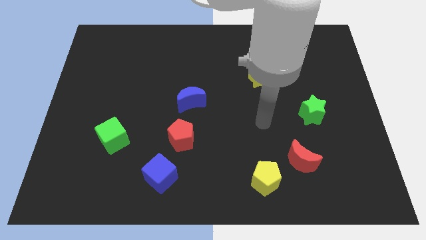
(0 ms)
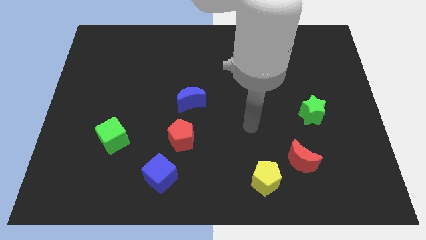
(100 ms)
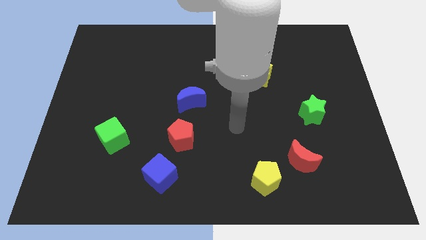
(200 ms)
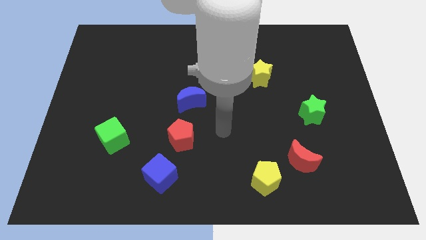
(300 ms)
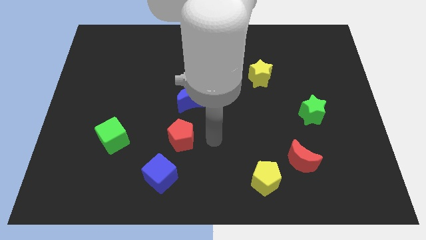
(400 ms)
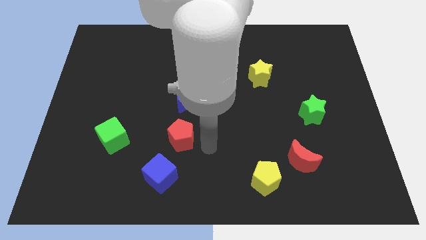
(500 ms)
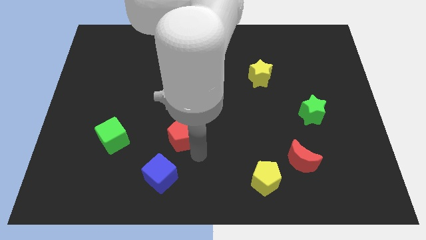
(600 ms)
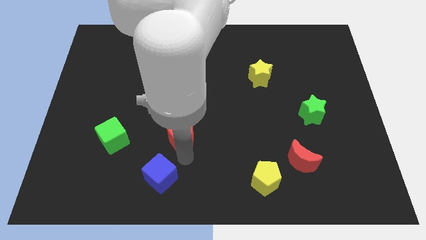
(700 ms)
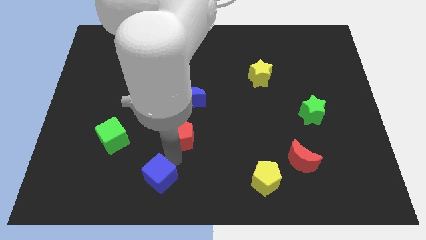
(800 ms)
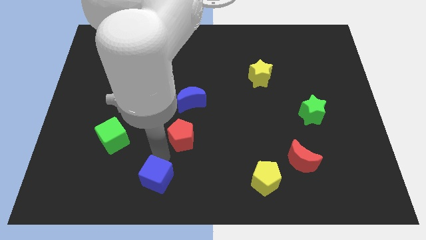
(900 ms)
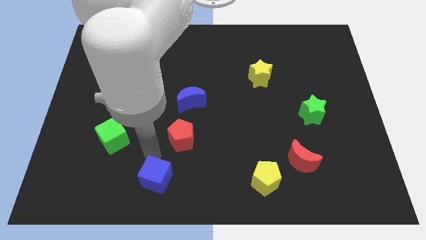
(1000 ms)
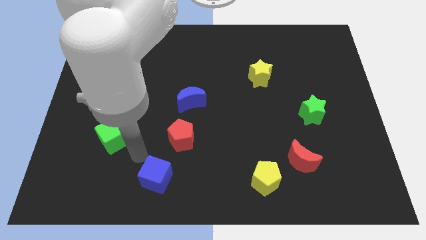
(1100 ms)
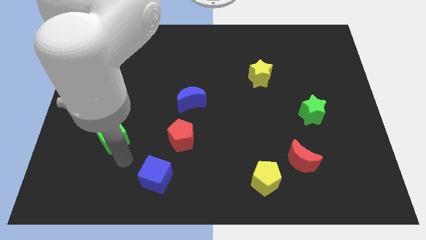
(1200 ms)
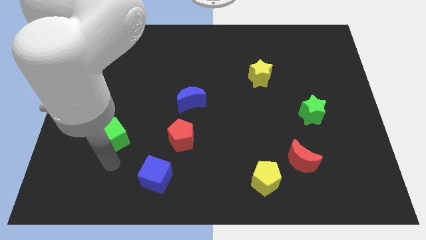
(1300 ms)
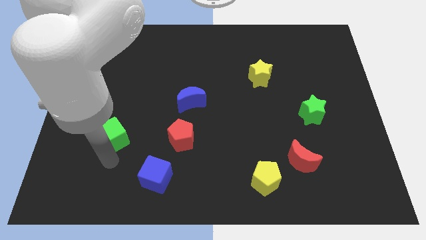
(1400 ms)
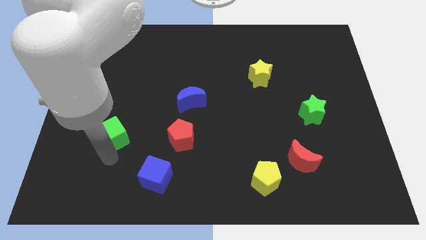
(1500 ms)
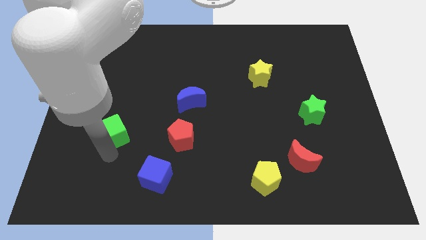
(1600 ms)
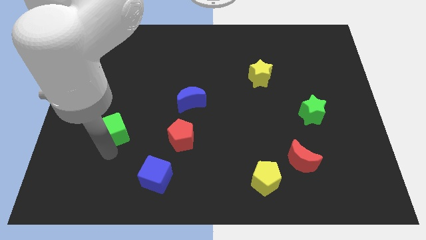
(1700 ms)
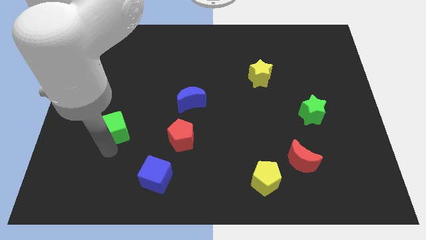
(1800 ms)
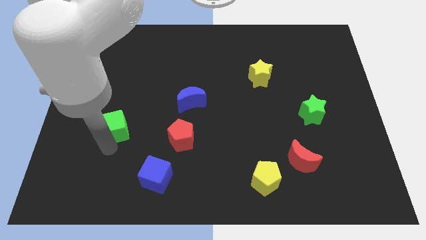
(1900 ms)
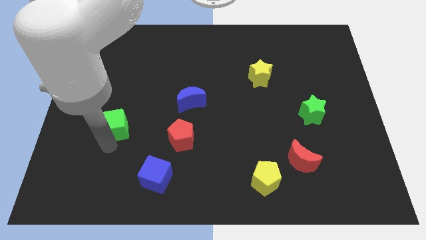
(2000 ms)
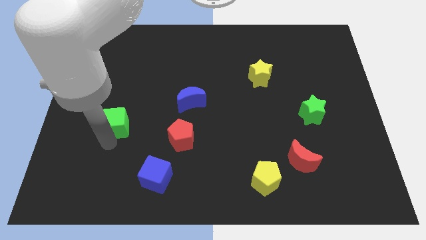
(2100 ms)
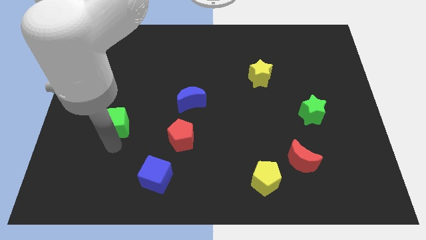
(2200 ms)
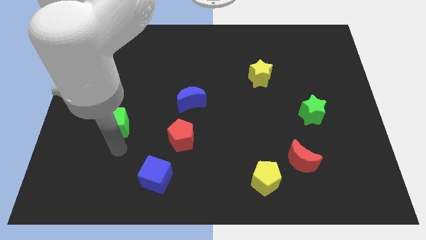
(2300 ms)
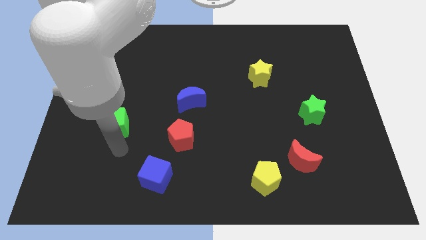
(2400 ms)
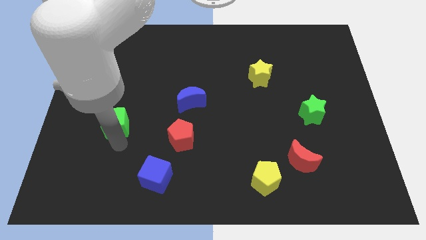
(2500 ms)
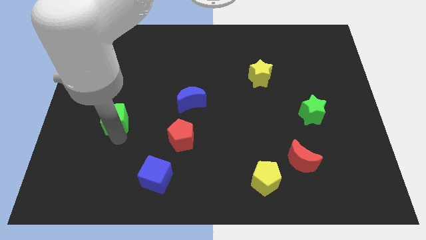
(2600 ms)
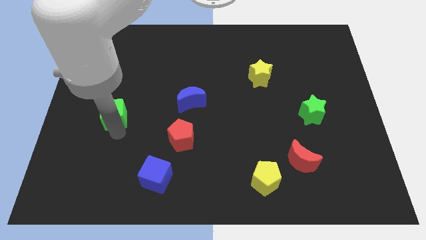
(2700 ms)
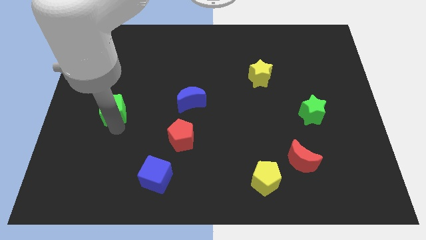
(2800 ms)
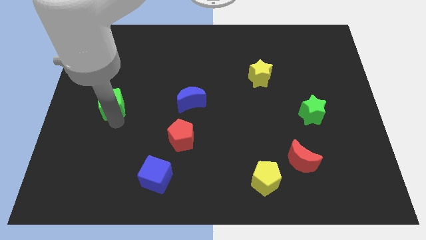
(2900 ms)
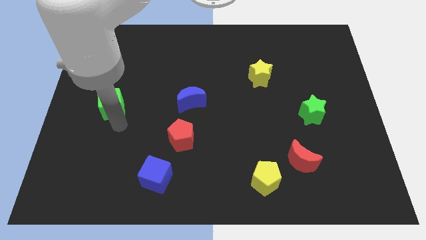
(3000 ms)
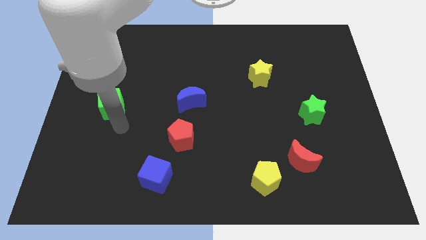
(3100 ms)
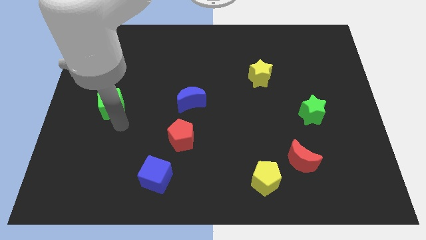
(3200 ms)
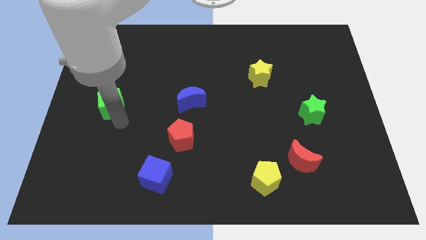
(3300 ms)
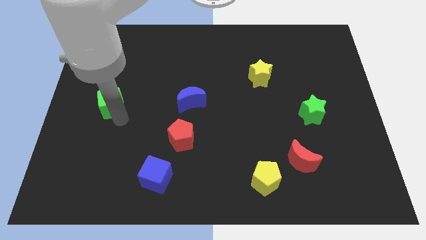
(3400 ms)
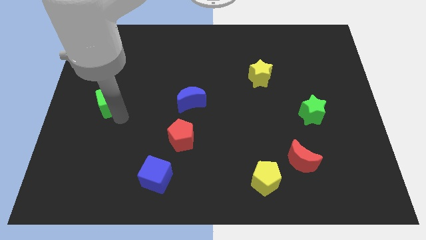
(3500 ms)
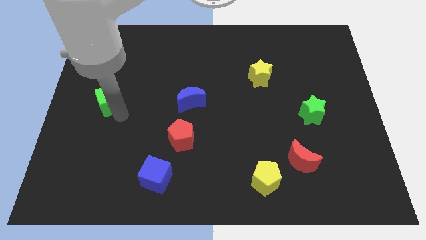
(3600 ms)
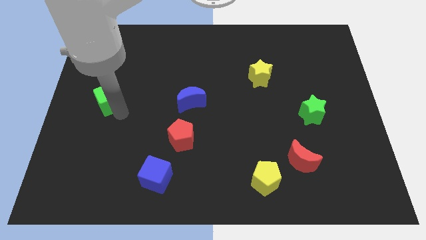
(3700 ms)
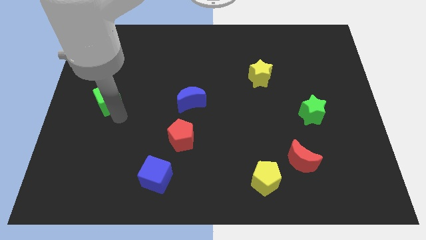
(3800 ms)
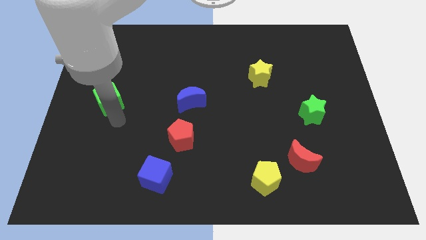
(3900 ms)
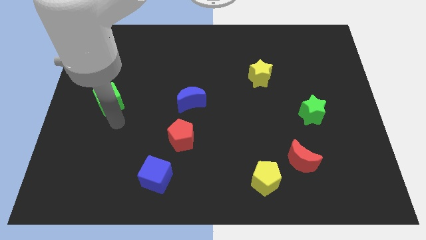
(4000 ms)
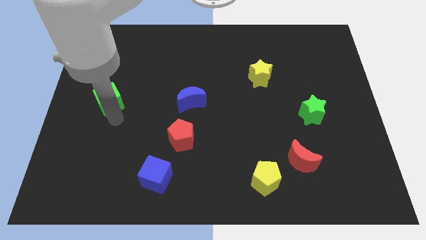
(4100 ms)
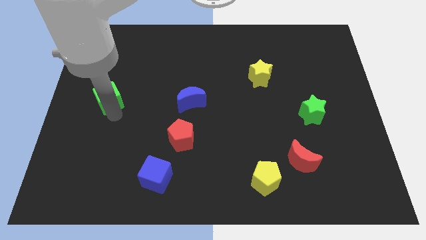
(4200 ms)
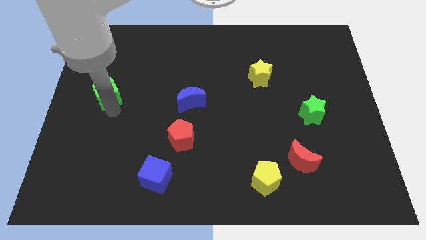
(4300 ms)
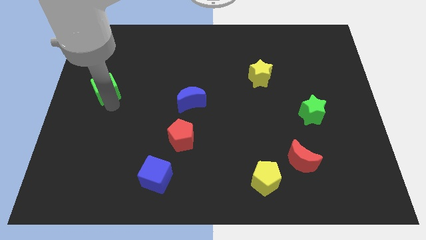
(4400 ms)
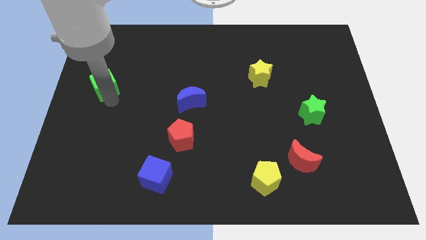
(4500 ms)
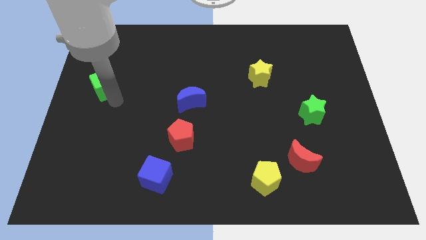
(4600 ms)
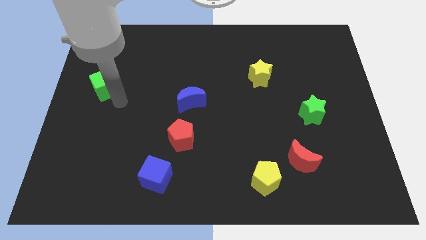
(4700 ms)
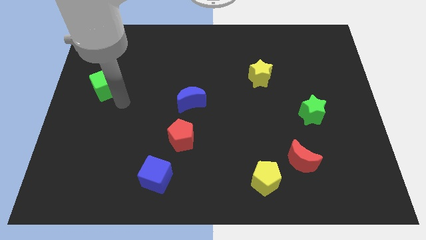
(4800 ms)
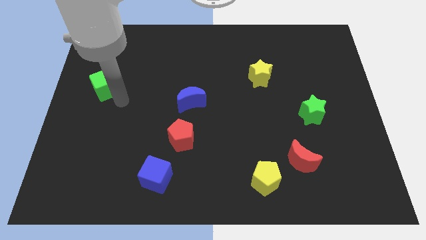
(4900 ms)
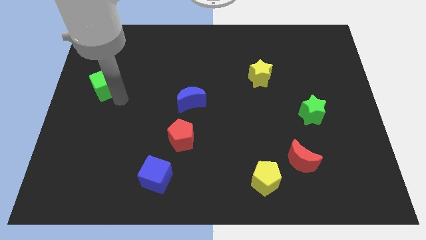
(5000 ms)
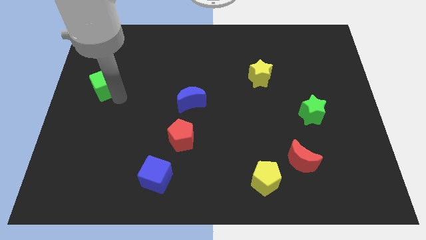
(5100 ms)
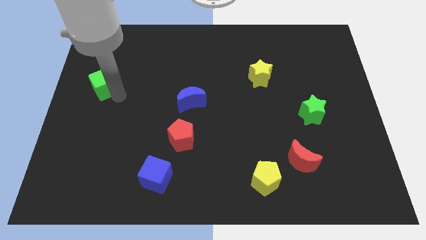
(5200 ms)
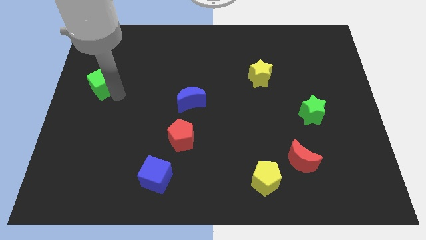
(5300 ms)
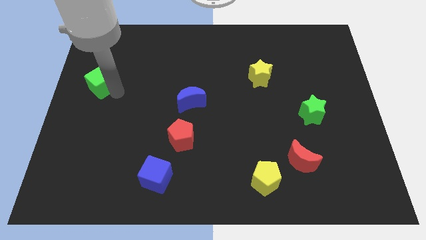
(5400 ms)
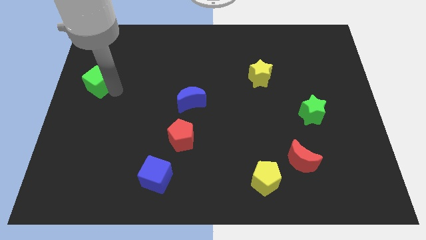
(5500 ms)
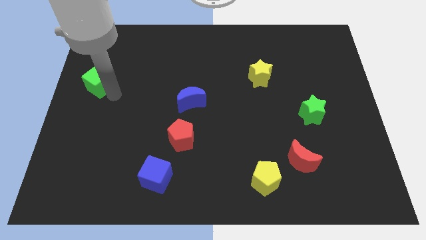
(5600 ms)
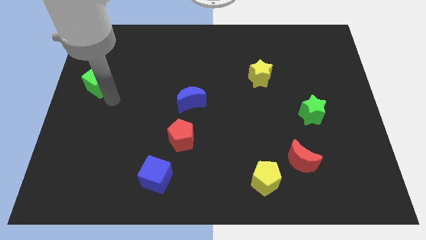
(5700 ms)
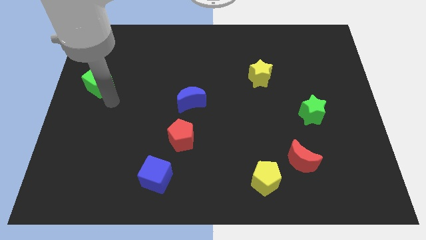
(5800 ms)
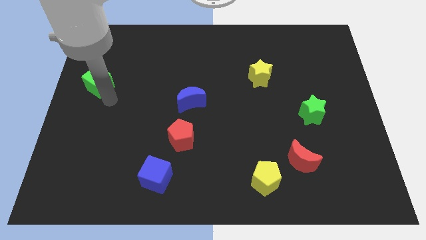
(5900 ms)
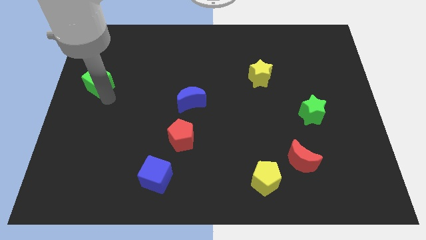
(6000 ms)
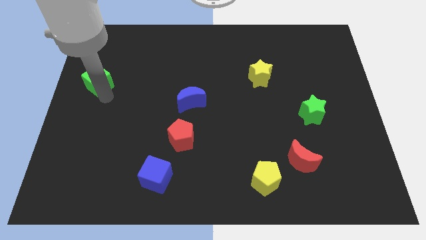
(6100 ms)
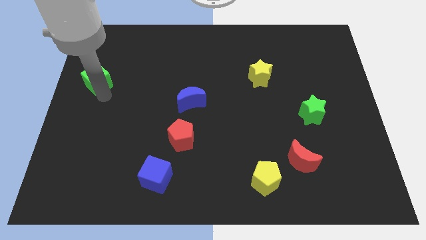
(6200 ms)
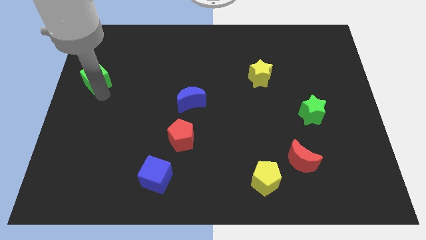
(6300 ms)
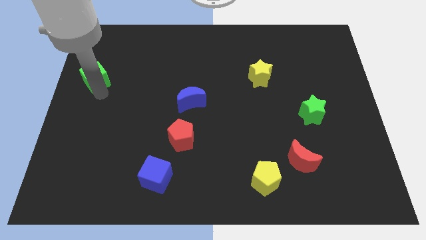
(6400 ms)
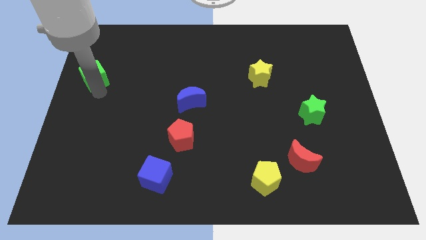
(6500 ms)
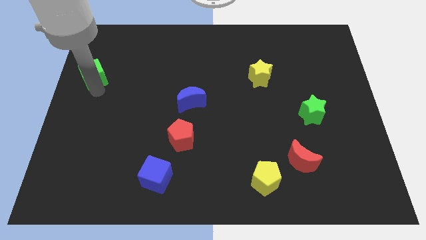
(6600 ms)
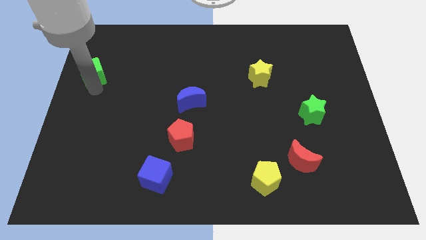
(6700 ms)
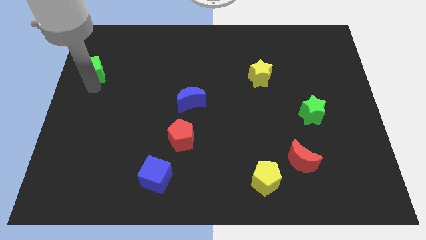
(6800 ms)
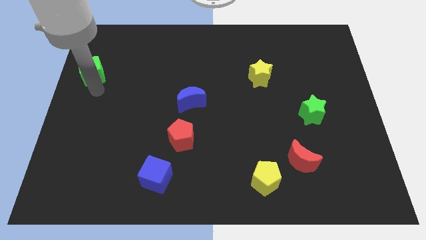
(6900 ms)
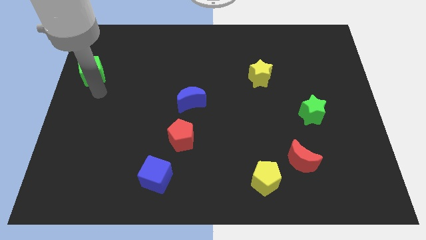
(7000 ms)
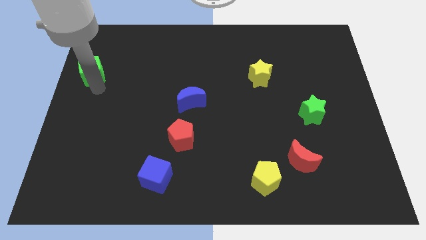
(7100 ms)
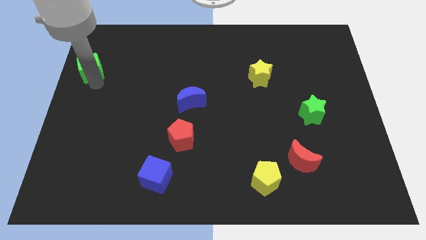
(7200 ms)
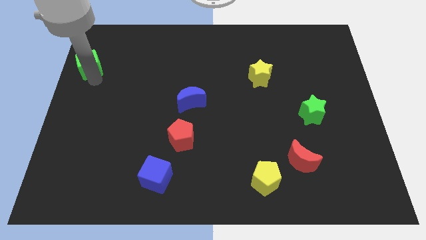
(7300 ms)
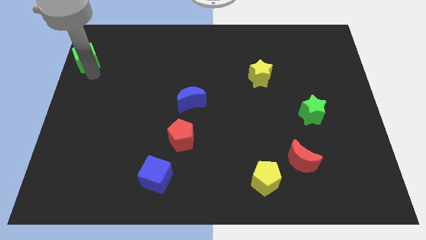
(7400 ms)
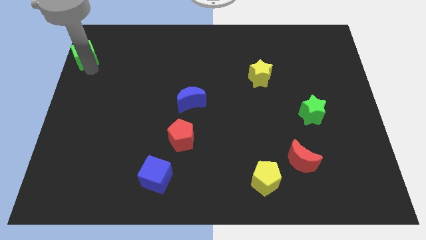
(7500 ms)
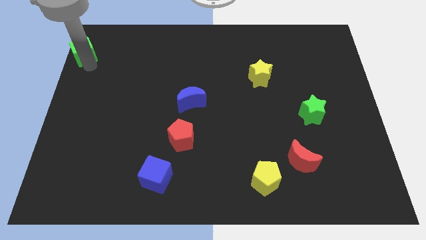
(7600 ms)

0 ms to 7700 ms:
push the green cube to the top left
